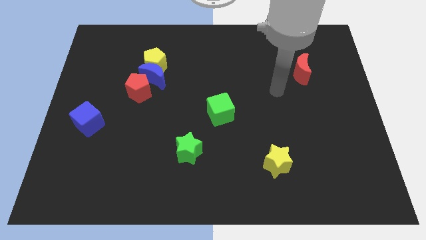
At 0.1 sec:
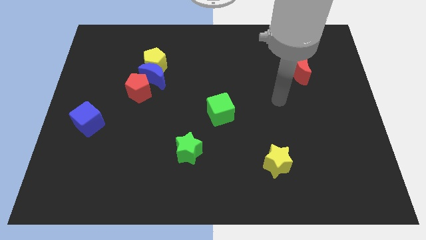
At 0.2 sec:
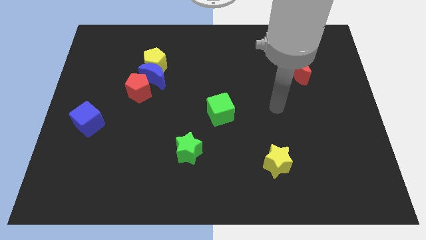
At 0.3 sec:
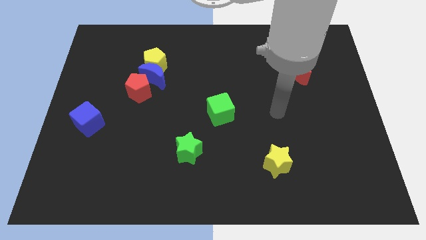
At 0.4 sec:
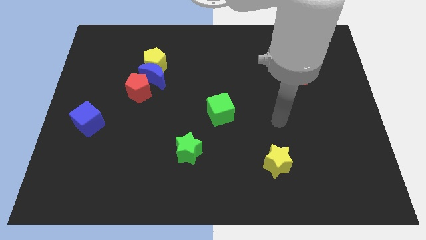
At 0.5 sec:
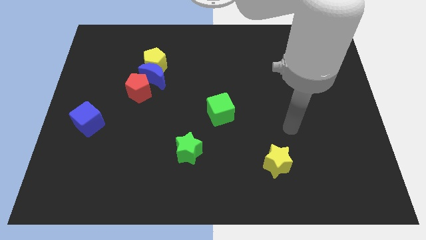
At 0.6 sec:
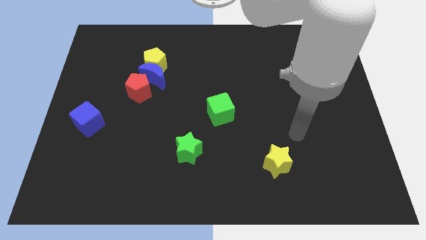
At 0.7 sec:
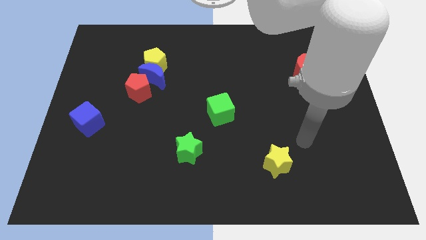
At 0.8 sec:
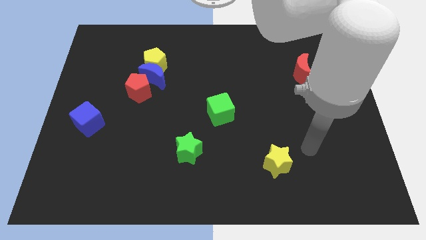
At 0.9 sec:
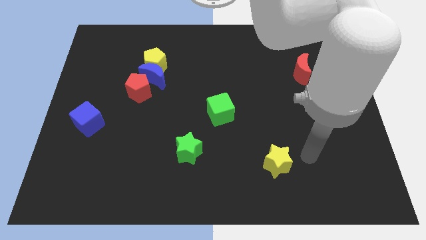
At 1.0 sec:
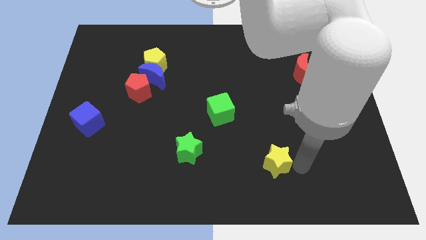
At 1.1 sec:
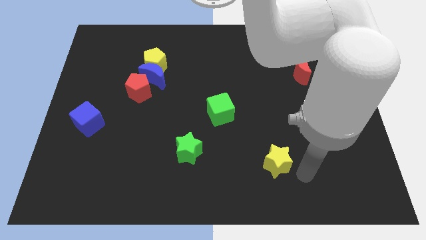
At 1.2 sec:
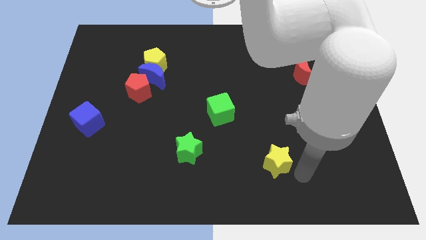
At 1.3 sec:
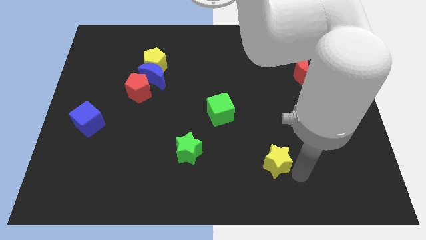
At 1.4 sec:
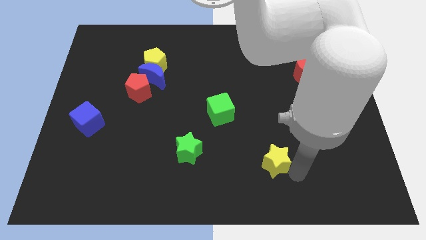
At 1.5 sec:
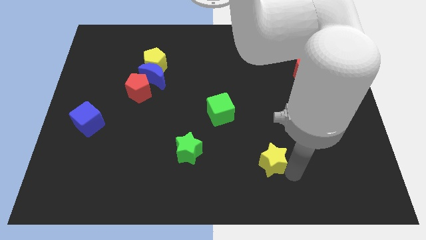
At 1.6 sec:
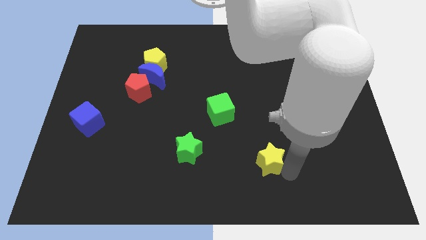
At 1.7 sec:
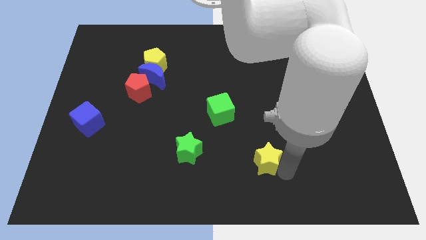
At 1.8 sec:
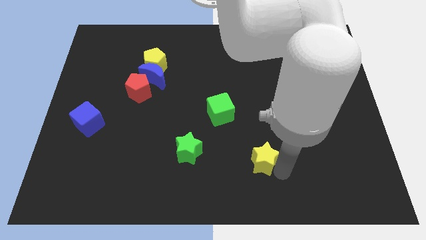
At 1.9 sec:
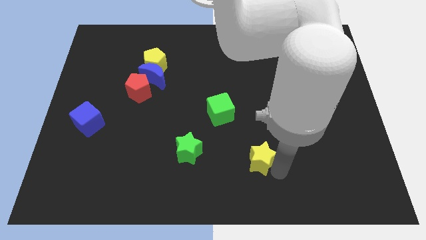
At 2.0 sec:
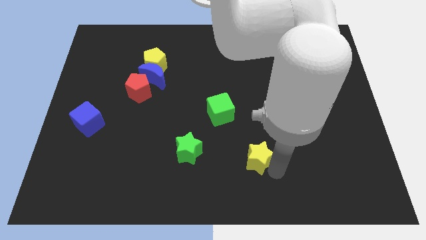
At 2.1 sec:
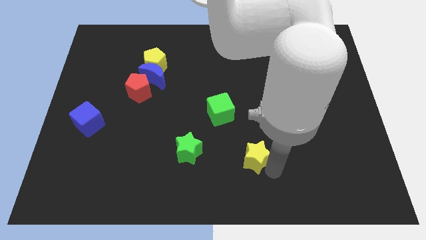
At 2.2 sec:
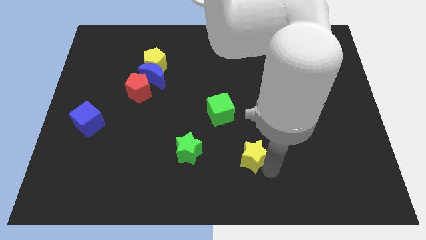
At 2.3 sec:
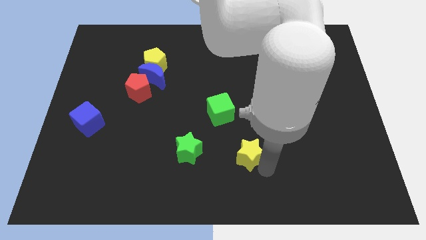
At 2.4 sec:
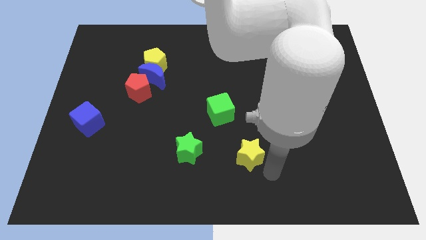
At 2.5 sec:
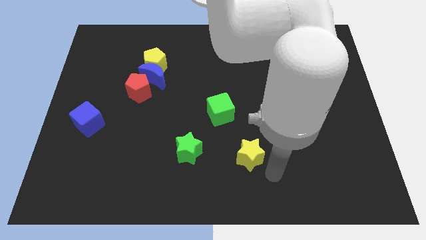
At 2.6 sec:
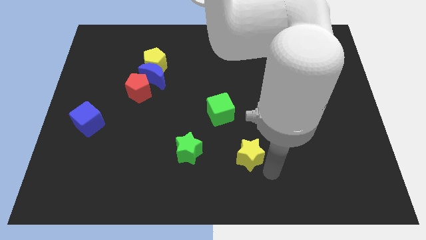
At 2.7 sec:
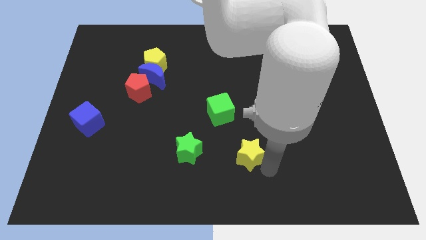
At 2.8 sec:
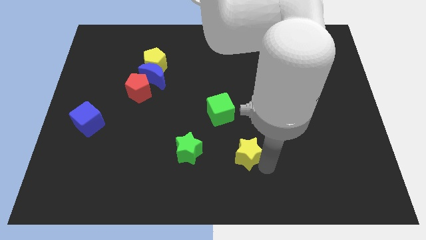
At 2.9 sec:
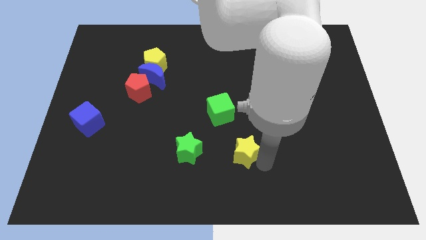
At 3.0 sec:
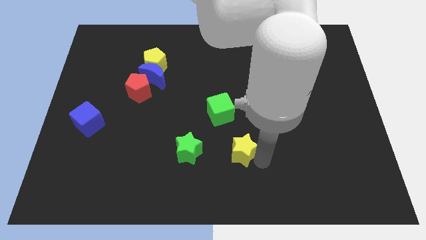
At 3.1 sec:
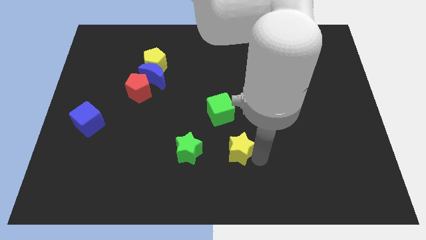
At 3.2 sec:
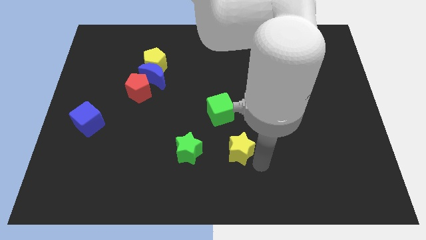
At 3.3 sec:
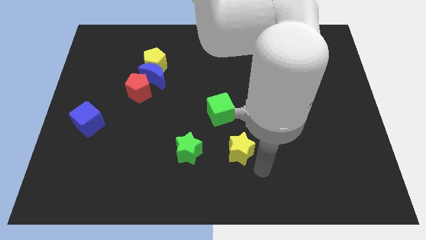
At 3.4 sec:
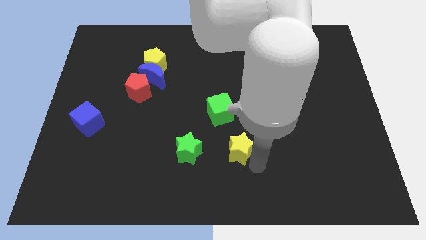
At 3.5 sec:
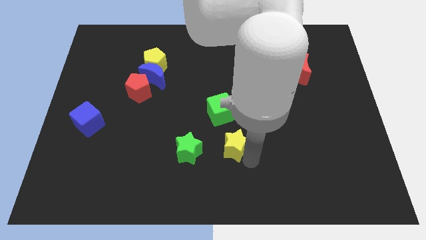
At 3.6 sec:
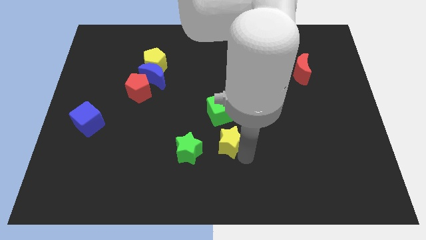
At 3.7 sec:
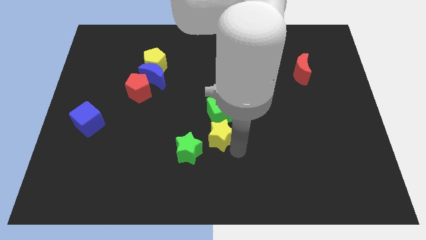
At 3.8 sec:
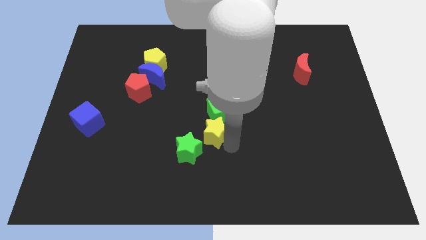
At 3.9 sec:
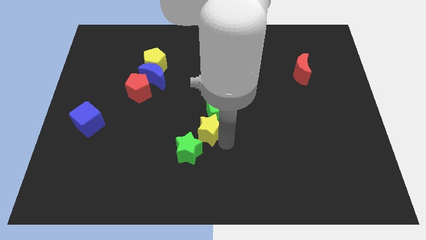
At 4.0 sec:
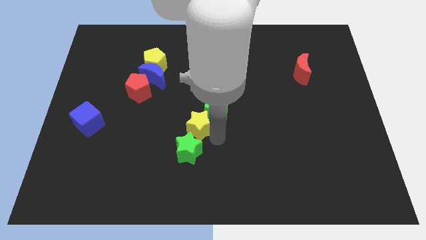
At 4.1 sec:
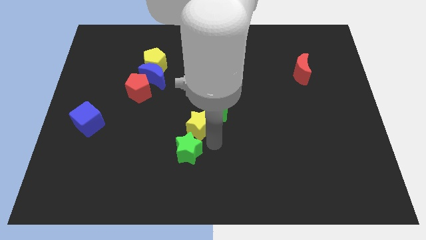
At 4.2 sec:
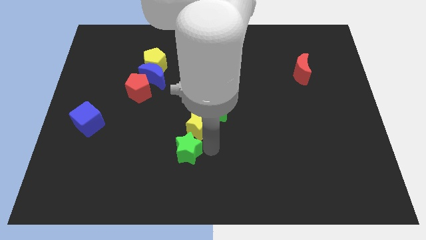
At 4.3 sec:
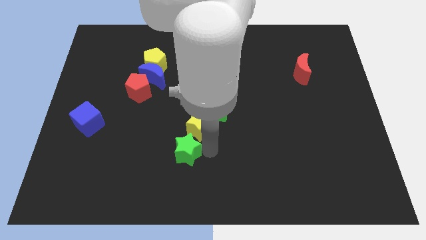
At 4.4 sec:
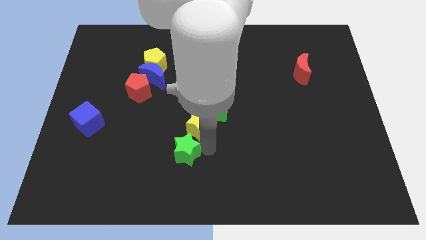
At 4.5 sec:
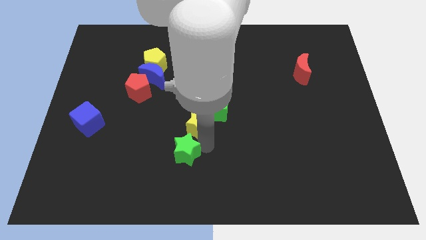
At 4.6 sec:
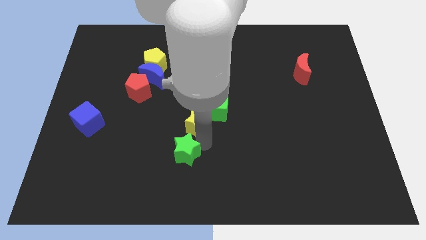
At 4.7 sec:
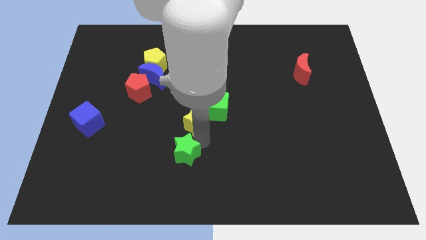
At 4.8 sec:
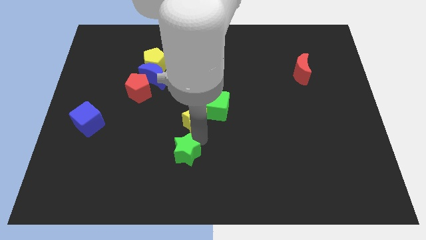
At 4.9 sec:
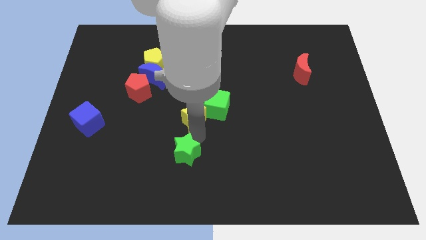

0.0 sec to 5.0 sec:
move the yellow star upwards and to the left diagonally

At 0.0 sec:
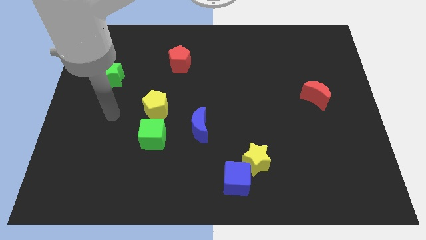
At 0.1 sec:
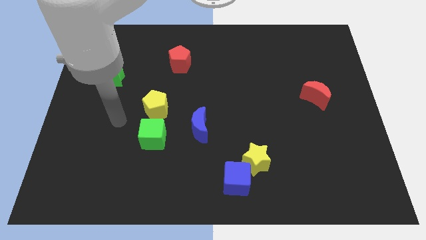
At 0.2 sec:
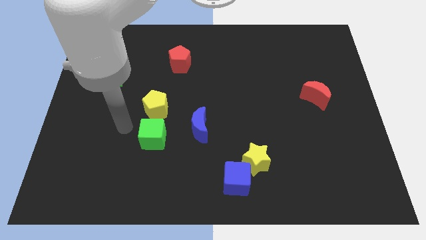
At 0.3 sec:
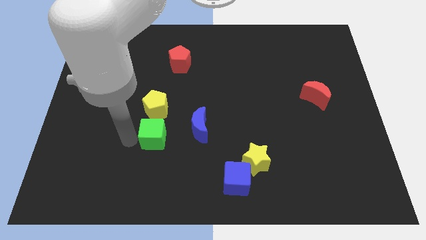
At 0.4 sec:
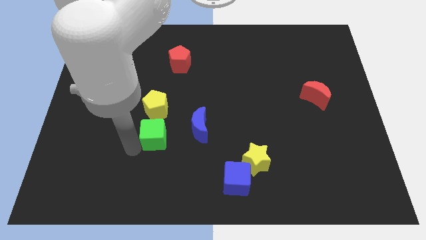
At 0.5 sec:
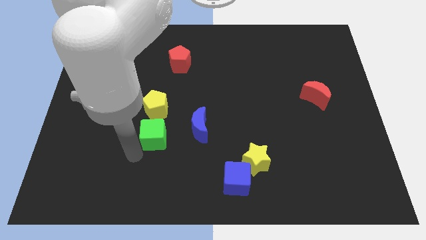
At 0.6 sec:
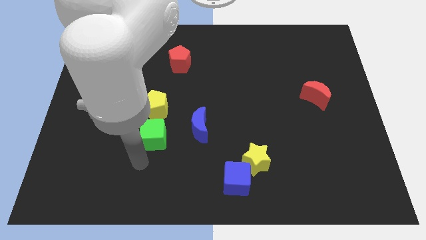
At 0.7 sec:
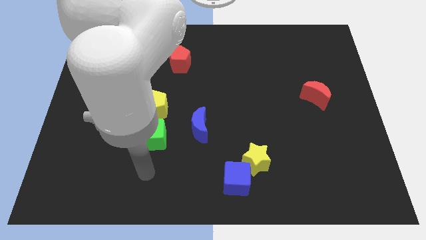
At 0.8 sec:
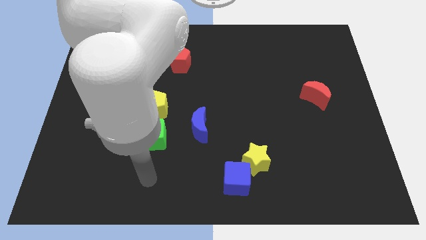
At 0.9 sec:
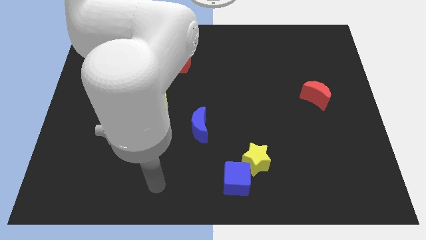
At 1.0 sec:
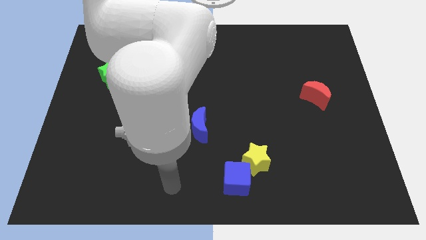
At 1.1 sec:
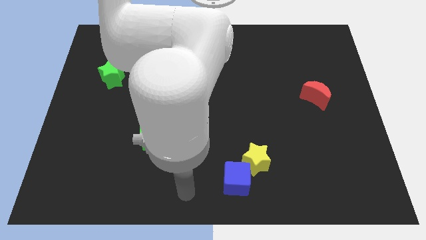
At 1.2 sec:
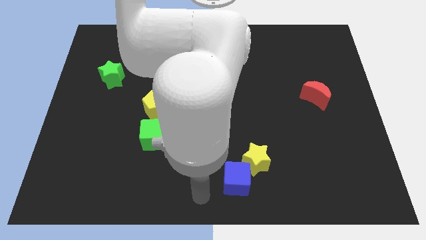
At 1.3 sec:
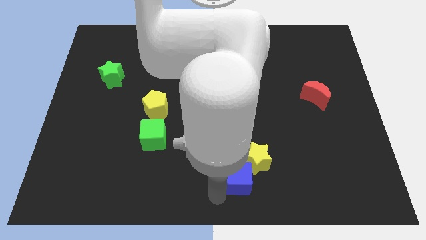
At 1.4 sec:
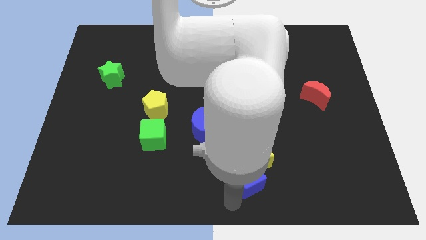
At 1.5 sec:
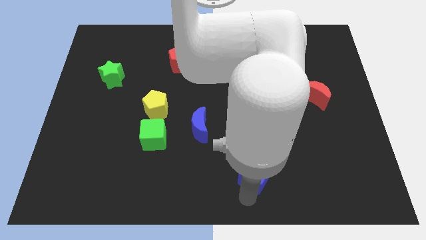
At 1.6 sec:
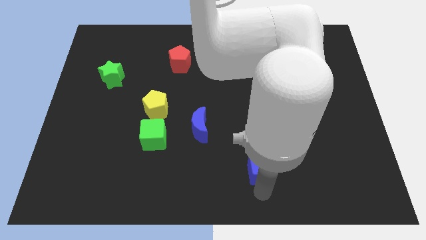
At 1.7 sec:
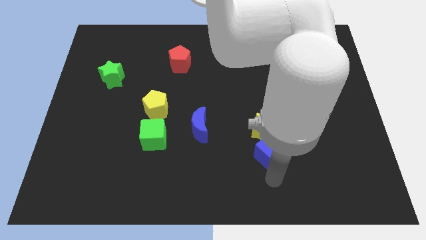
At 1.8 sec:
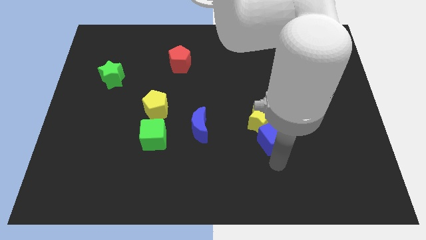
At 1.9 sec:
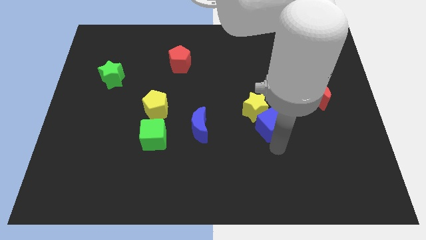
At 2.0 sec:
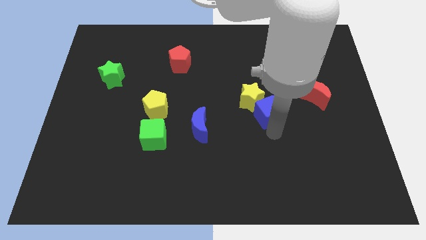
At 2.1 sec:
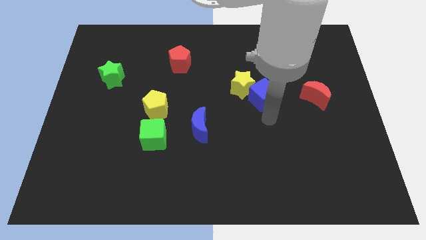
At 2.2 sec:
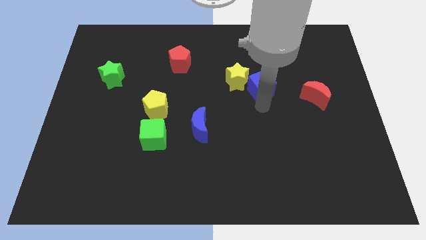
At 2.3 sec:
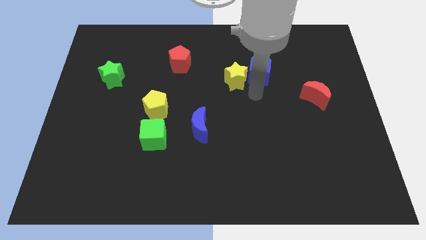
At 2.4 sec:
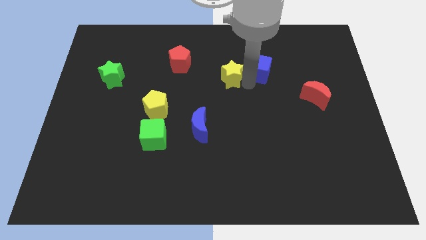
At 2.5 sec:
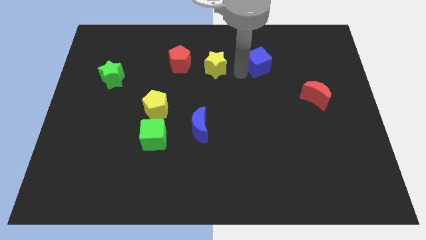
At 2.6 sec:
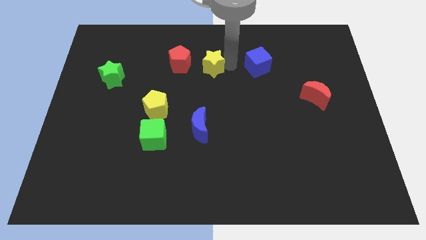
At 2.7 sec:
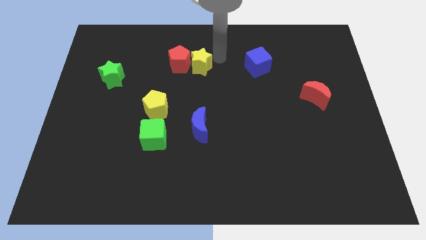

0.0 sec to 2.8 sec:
push the yellow star up and to the left diagonally
